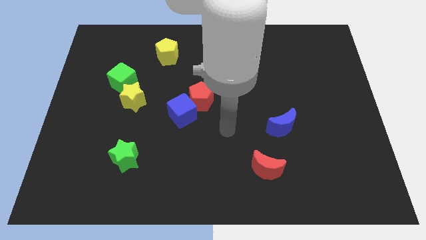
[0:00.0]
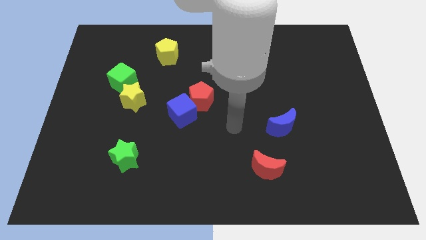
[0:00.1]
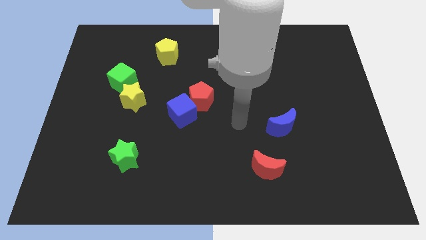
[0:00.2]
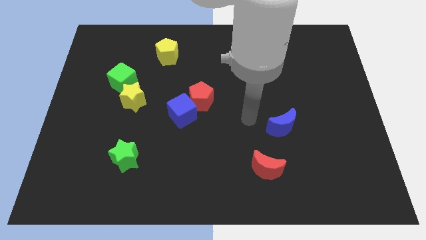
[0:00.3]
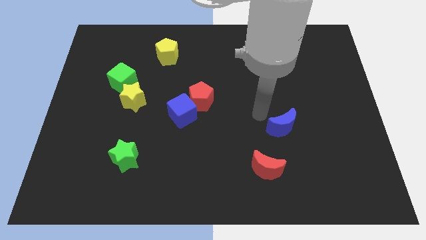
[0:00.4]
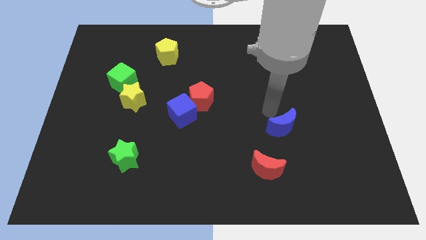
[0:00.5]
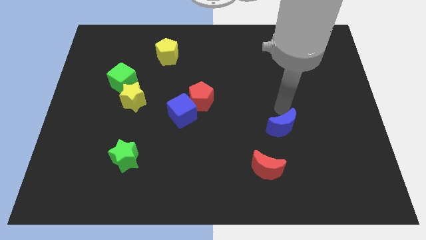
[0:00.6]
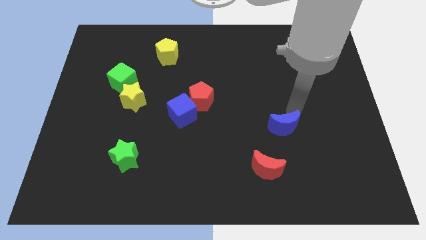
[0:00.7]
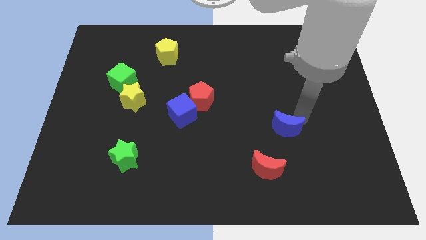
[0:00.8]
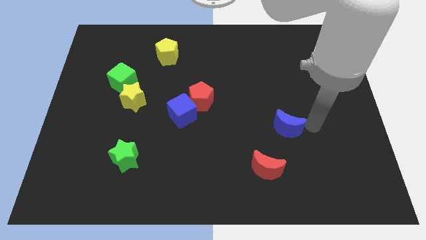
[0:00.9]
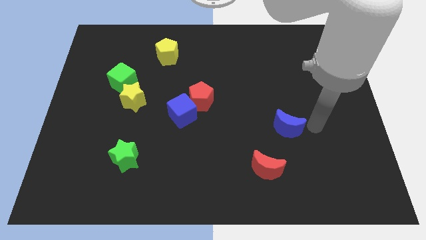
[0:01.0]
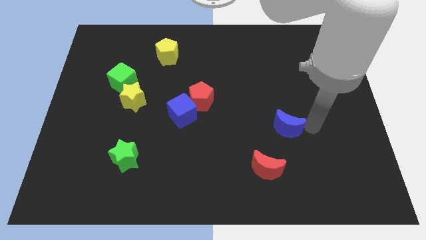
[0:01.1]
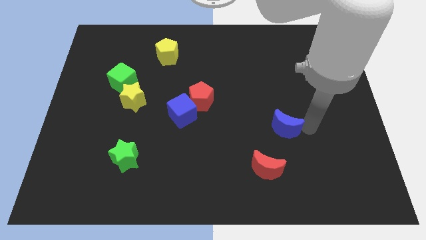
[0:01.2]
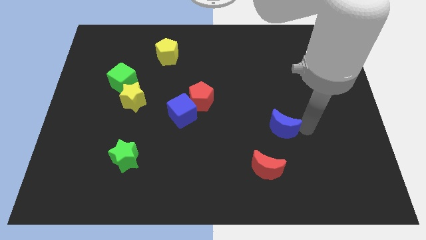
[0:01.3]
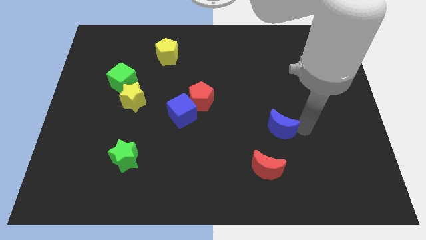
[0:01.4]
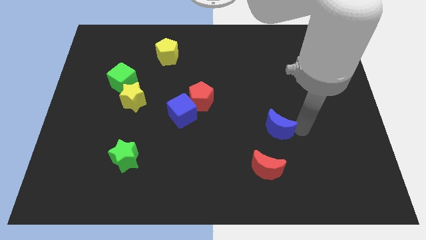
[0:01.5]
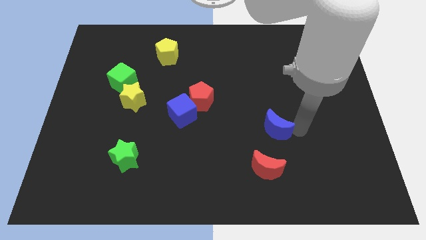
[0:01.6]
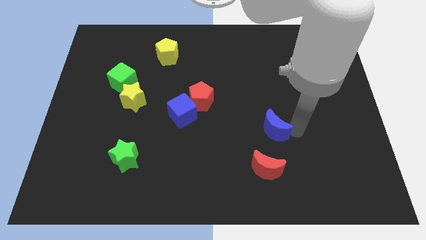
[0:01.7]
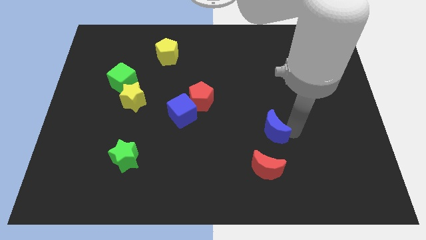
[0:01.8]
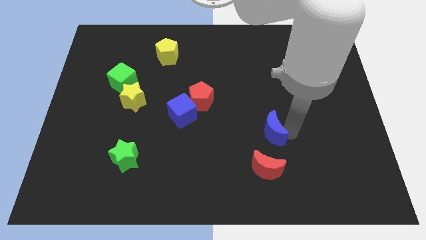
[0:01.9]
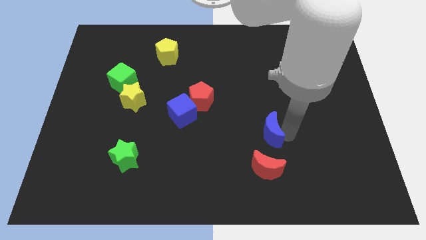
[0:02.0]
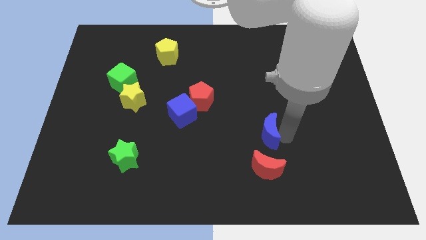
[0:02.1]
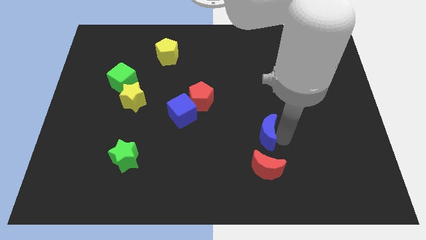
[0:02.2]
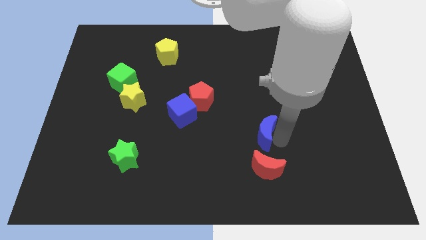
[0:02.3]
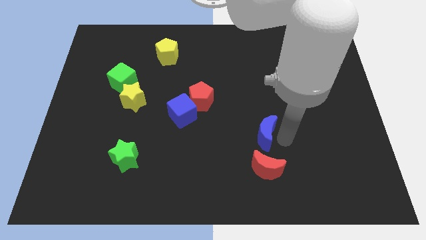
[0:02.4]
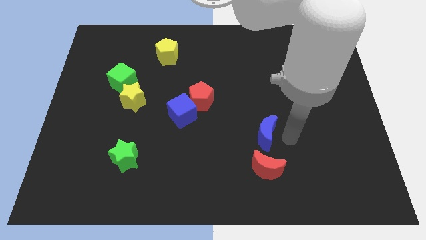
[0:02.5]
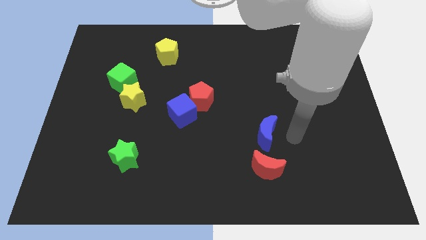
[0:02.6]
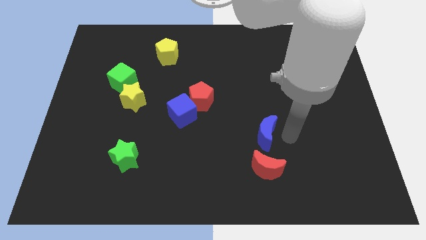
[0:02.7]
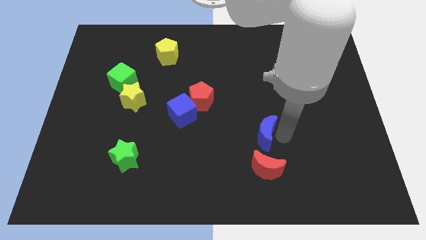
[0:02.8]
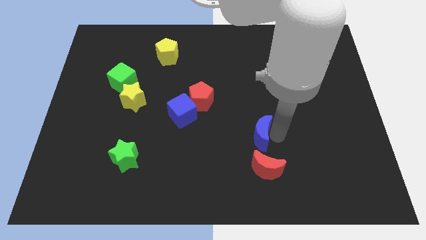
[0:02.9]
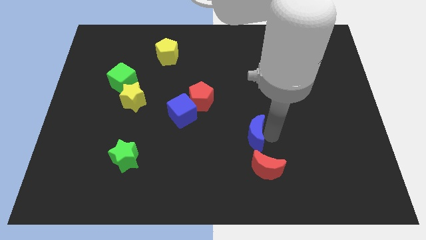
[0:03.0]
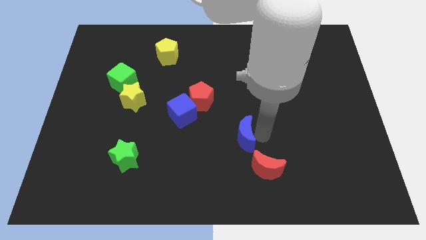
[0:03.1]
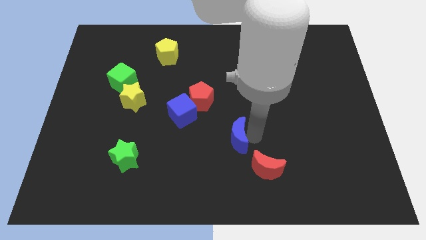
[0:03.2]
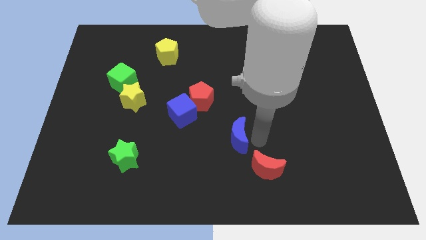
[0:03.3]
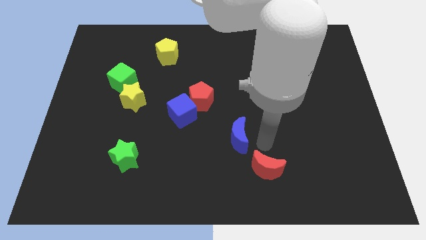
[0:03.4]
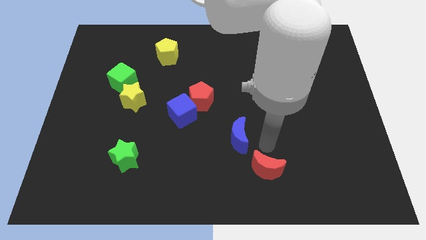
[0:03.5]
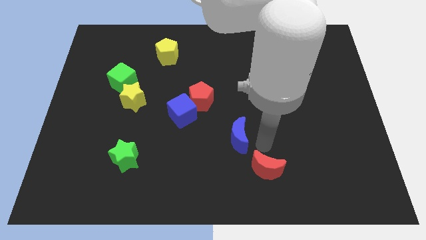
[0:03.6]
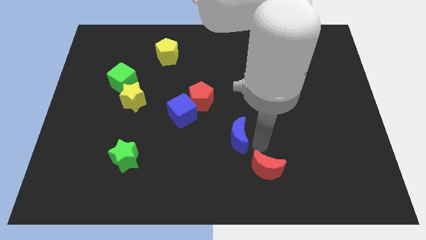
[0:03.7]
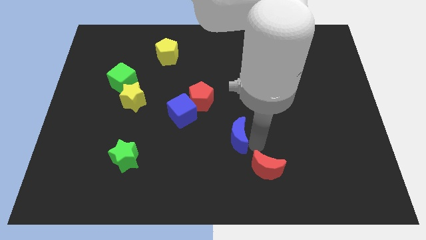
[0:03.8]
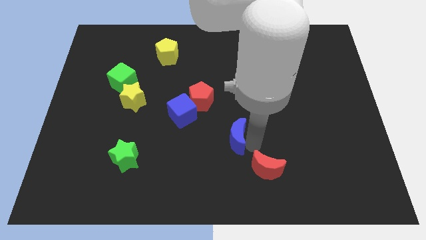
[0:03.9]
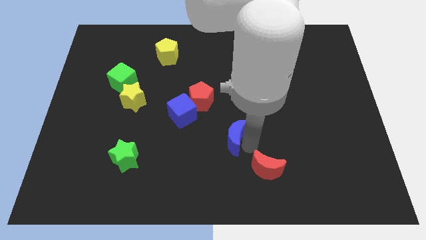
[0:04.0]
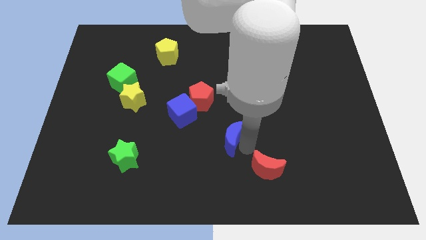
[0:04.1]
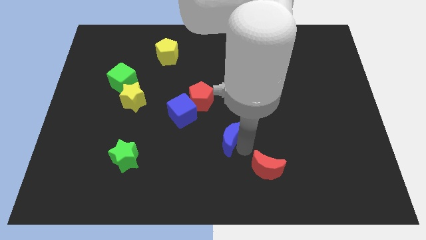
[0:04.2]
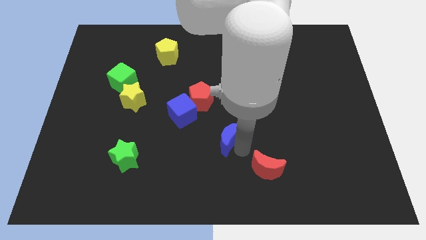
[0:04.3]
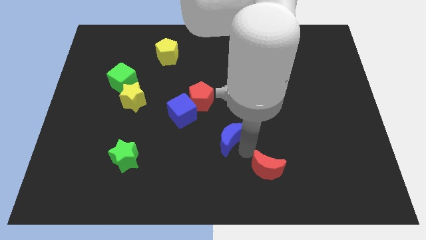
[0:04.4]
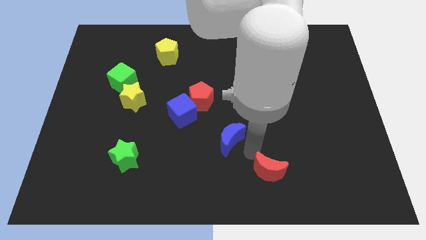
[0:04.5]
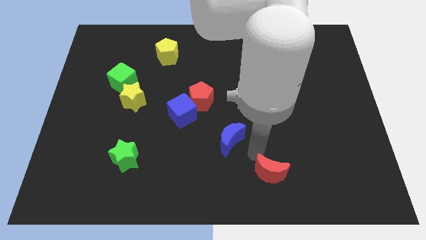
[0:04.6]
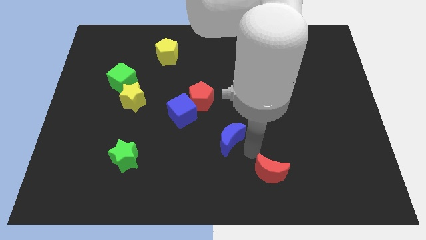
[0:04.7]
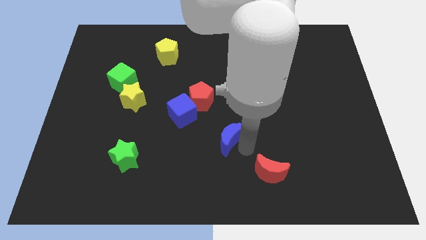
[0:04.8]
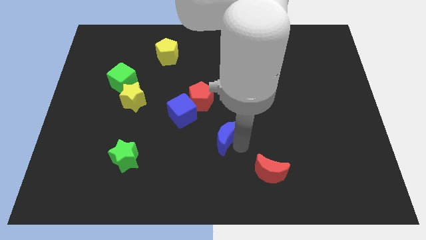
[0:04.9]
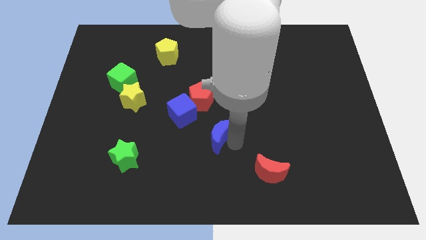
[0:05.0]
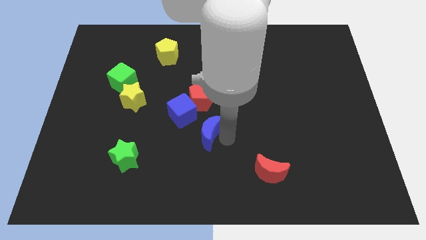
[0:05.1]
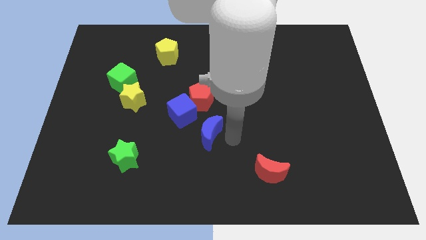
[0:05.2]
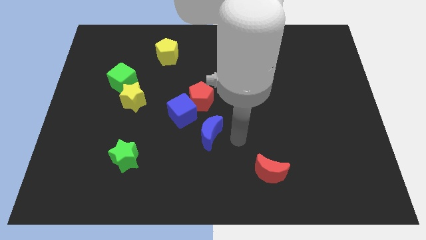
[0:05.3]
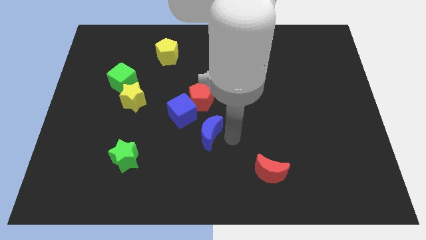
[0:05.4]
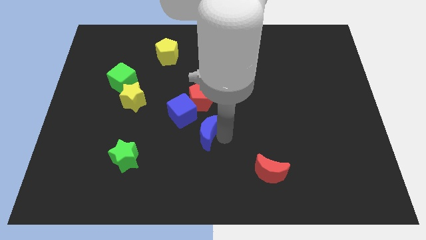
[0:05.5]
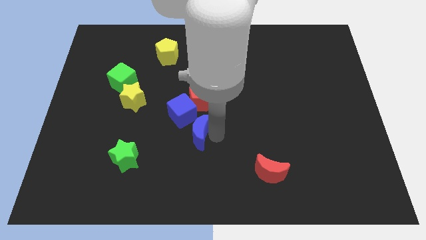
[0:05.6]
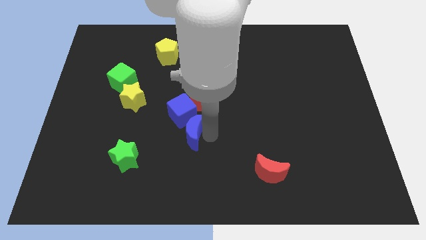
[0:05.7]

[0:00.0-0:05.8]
slide the blue moon left

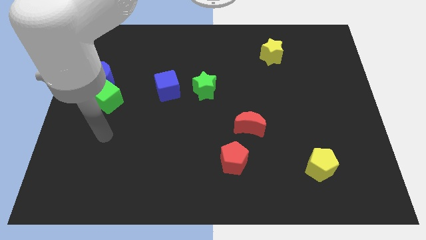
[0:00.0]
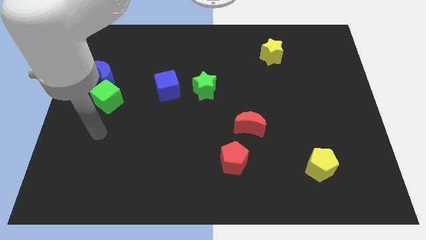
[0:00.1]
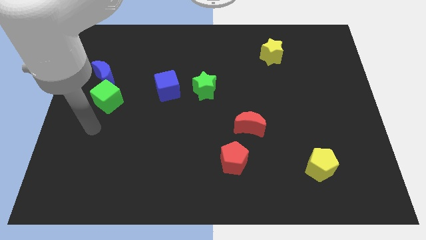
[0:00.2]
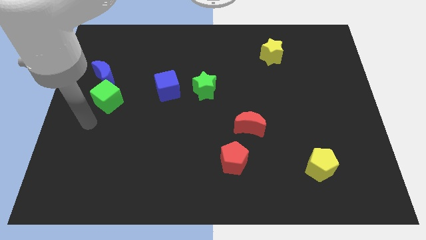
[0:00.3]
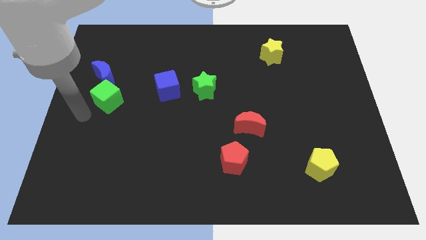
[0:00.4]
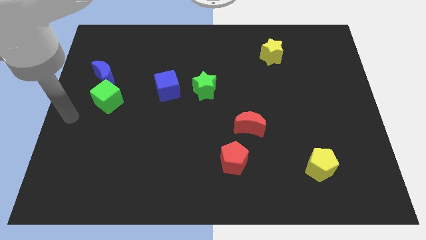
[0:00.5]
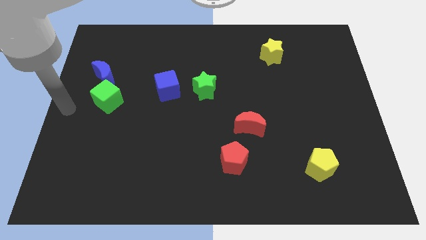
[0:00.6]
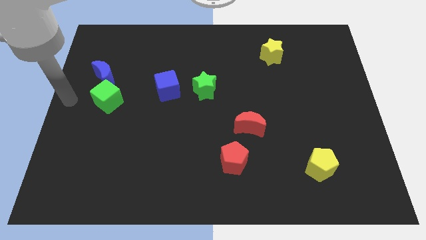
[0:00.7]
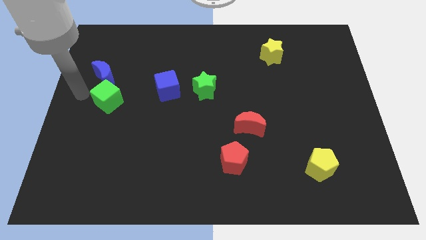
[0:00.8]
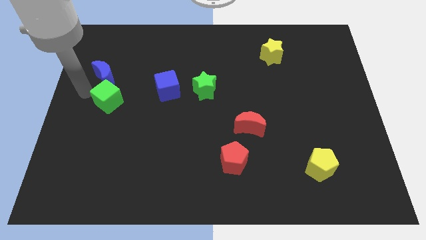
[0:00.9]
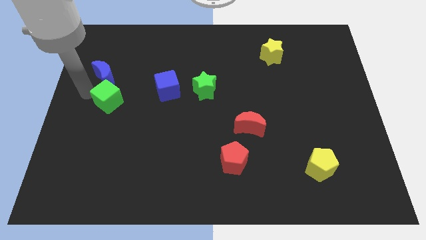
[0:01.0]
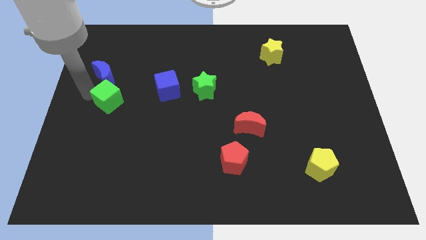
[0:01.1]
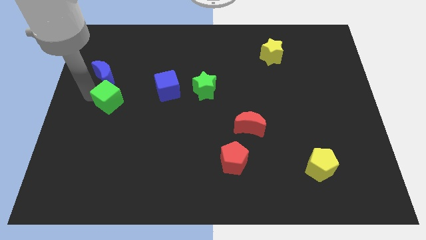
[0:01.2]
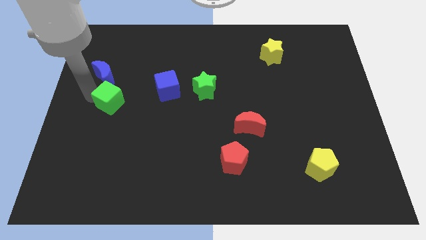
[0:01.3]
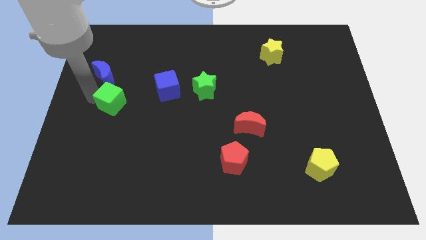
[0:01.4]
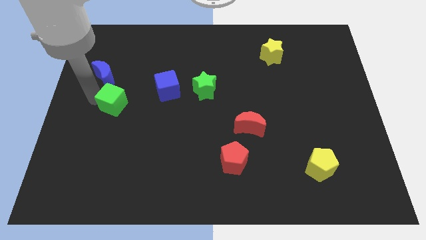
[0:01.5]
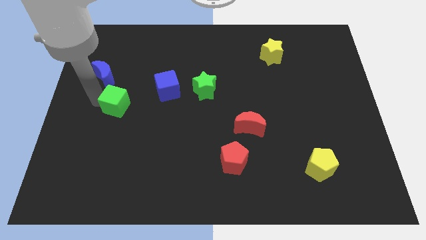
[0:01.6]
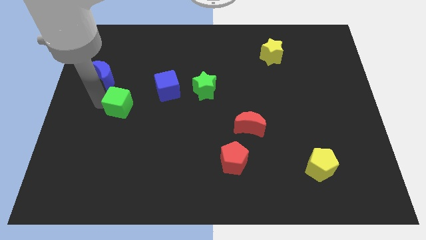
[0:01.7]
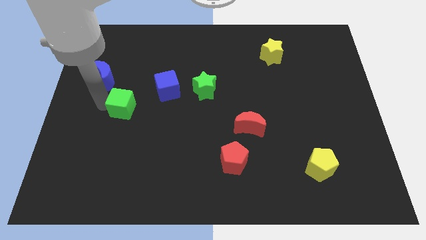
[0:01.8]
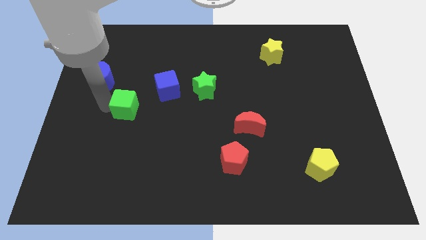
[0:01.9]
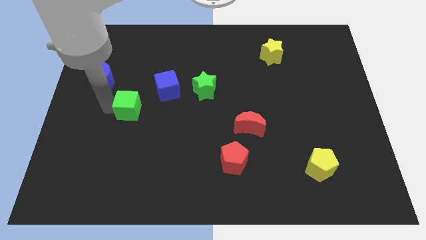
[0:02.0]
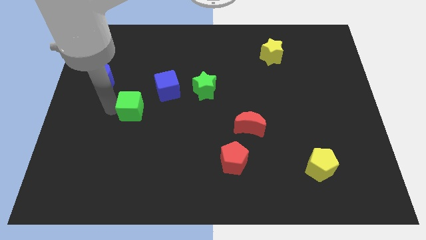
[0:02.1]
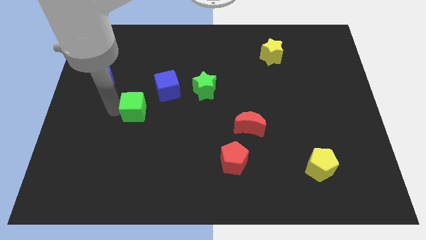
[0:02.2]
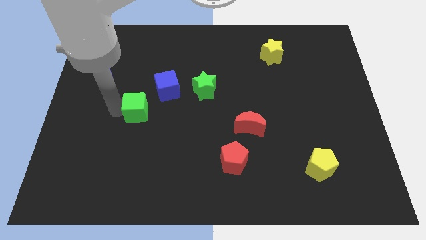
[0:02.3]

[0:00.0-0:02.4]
slide the green cube a little right
